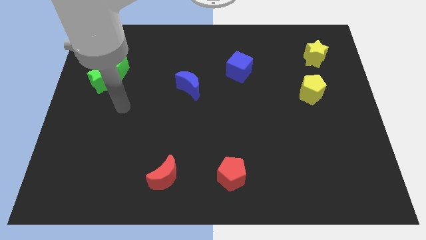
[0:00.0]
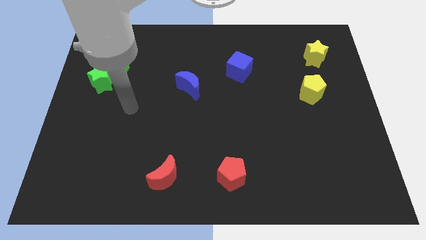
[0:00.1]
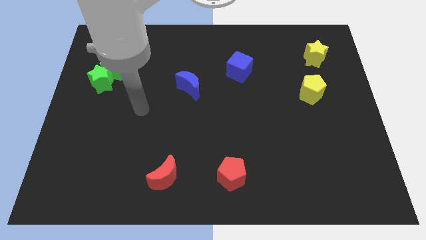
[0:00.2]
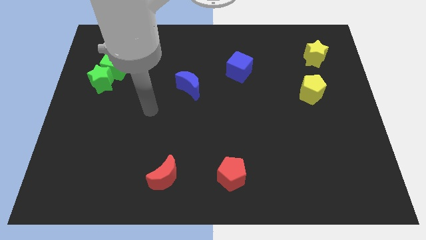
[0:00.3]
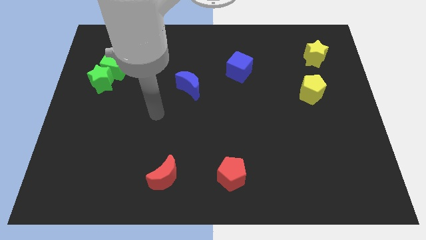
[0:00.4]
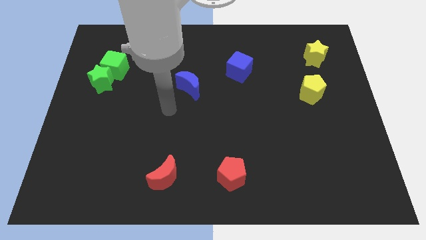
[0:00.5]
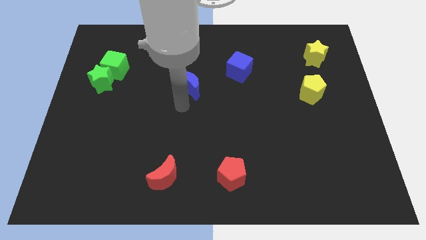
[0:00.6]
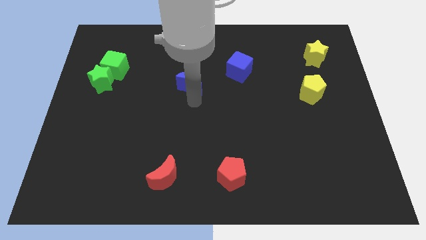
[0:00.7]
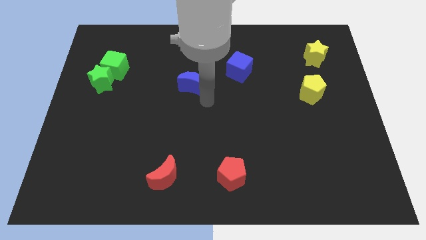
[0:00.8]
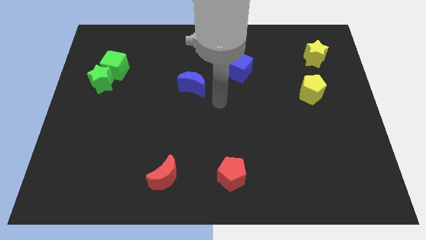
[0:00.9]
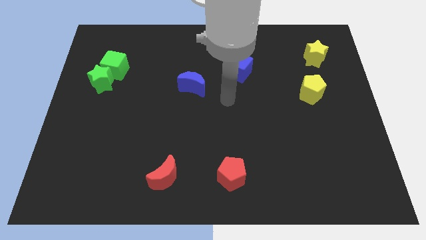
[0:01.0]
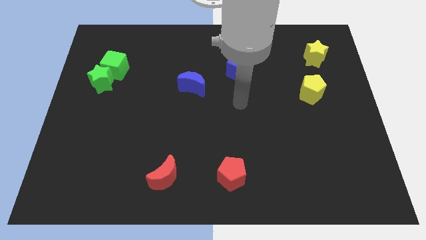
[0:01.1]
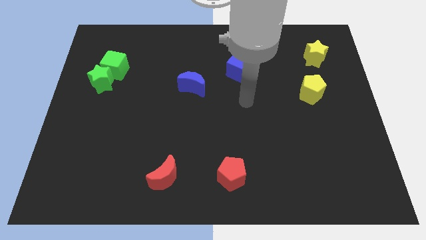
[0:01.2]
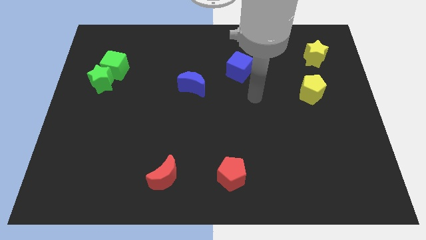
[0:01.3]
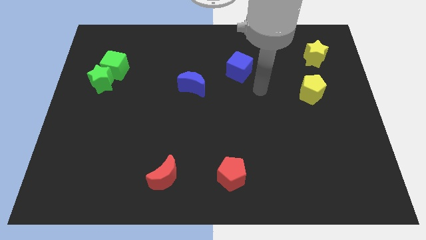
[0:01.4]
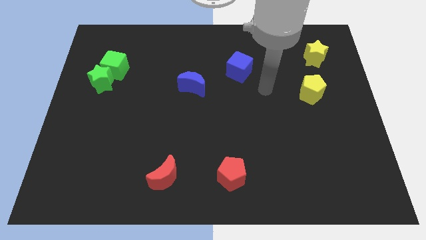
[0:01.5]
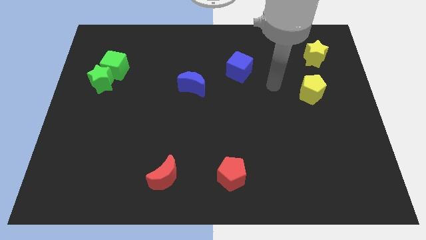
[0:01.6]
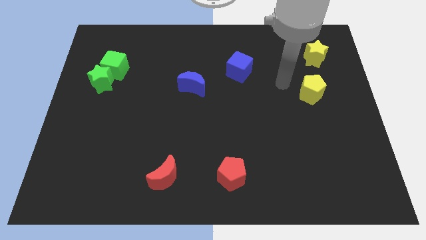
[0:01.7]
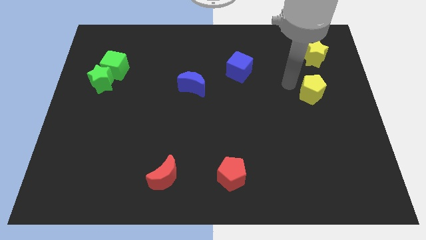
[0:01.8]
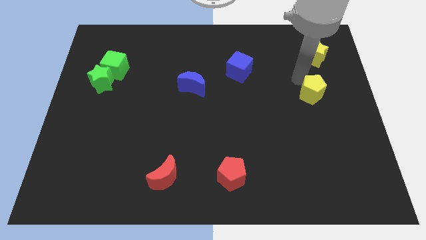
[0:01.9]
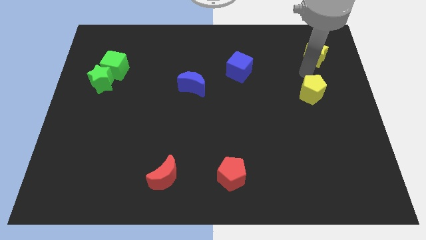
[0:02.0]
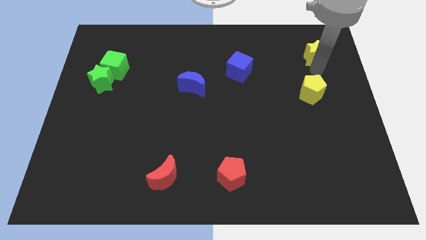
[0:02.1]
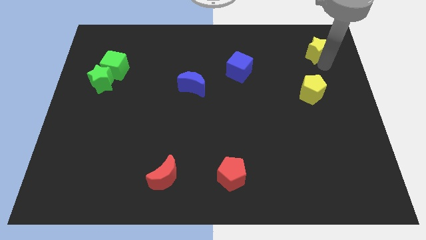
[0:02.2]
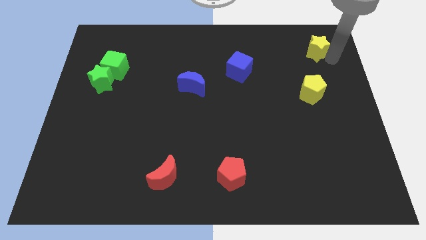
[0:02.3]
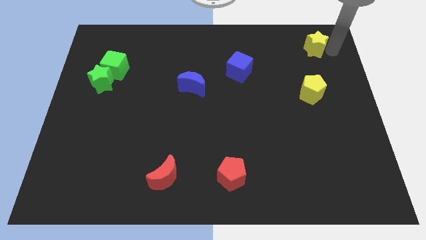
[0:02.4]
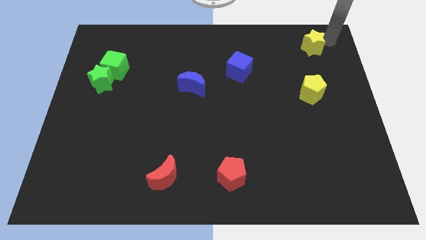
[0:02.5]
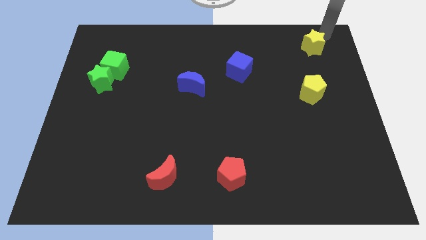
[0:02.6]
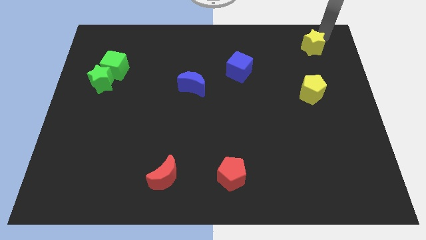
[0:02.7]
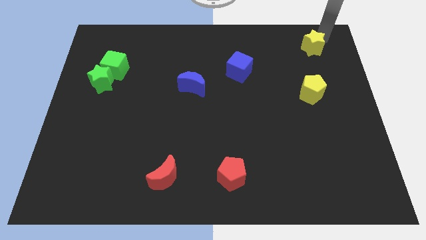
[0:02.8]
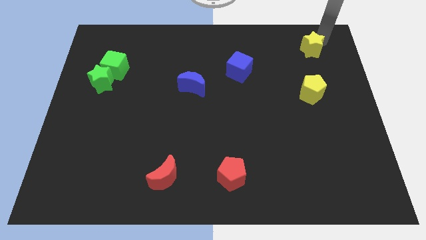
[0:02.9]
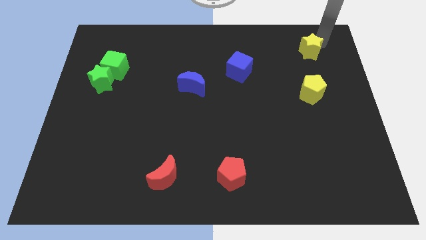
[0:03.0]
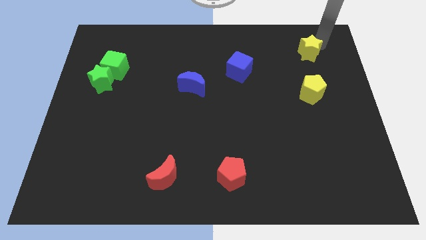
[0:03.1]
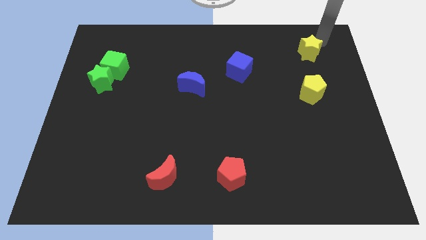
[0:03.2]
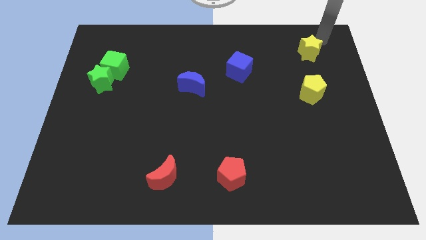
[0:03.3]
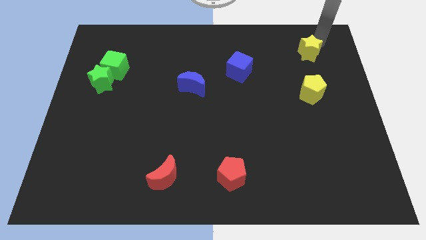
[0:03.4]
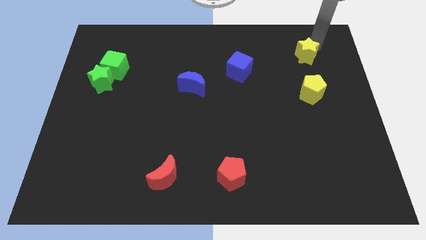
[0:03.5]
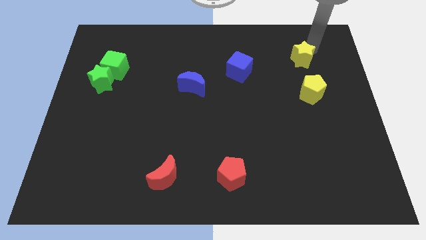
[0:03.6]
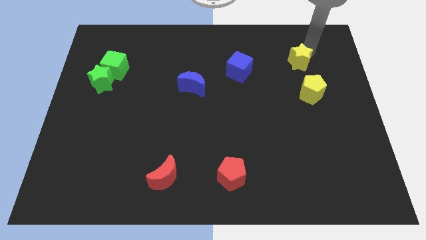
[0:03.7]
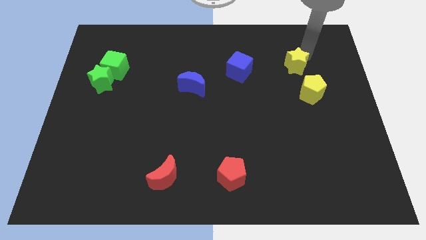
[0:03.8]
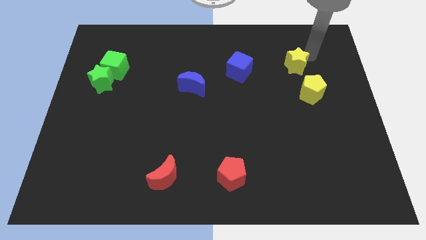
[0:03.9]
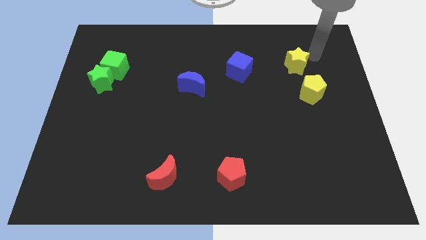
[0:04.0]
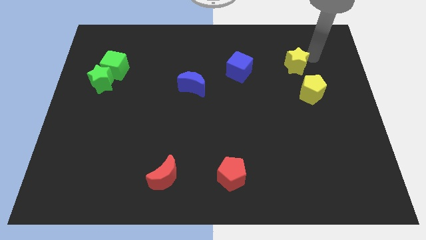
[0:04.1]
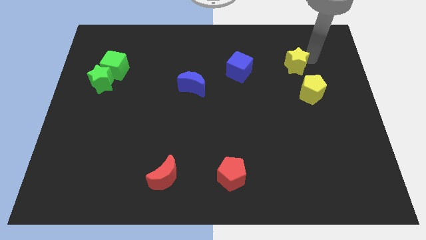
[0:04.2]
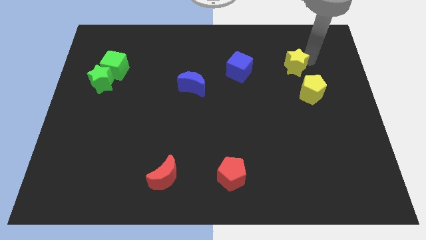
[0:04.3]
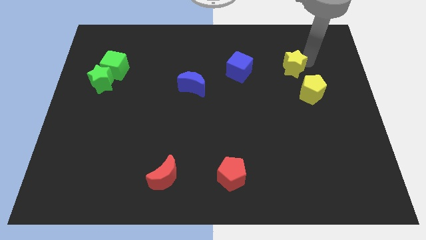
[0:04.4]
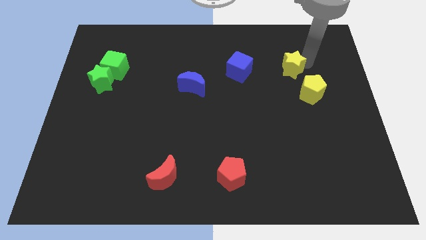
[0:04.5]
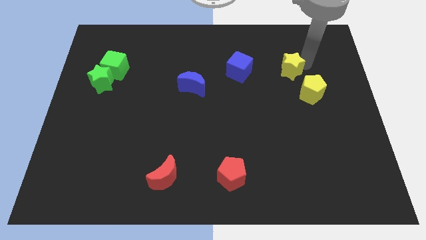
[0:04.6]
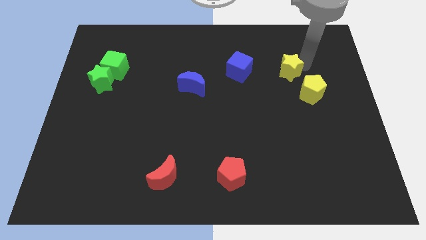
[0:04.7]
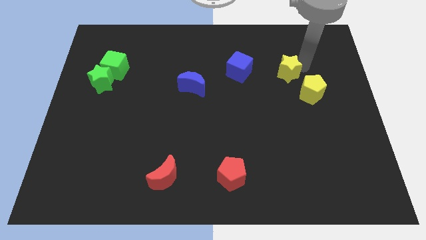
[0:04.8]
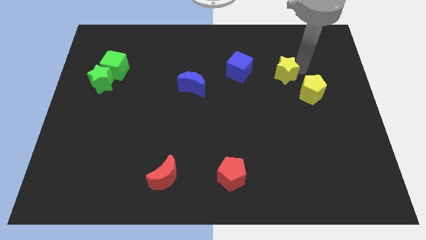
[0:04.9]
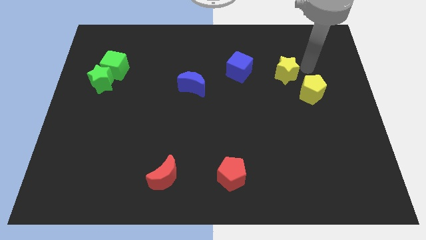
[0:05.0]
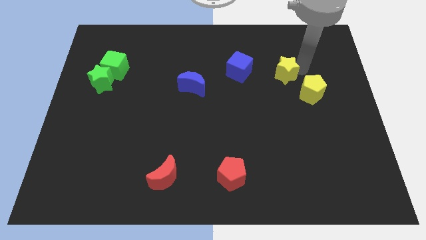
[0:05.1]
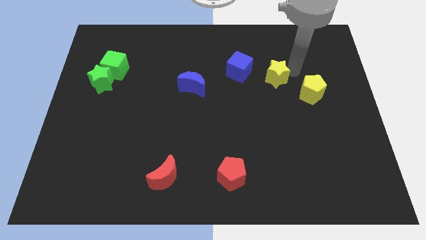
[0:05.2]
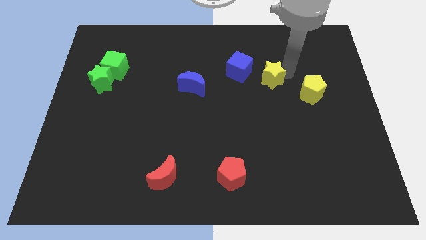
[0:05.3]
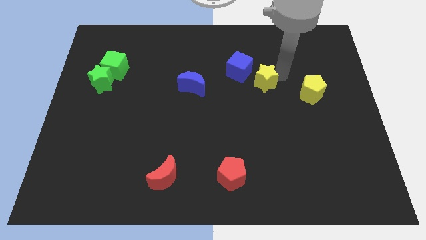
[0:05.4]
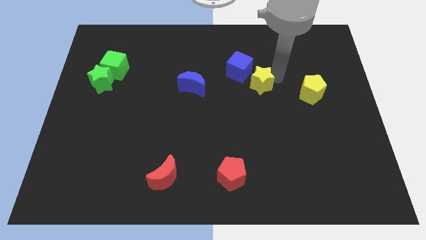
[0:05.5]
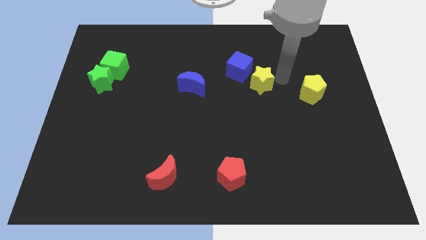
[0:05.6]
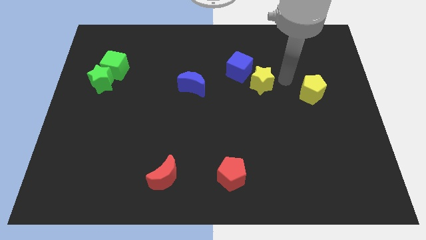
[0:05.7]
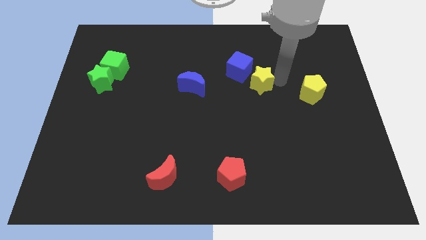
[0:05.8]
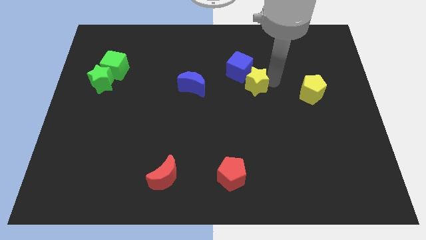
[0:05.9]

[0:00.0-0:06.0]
slide the yellow star right of the blue moon

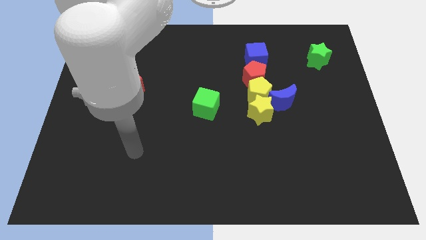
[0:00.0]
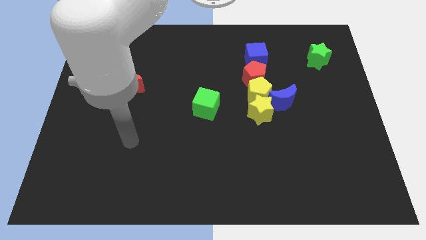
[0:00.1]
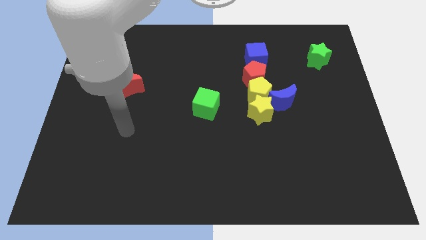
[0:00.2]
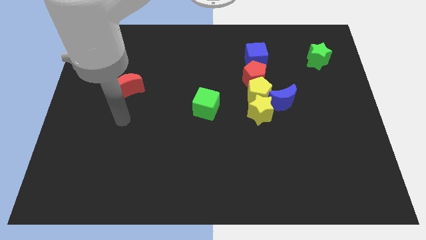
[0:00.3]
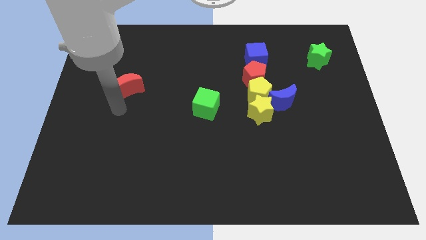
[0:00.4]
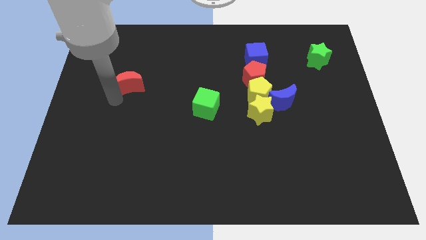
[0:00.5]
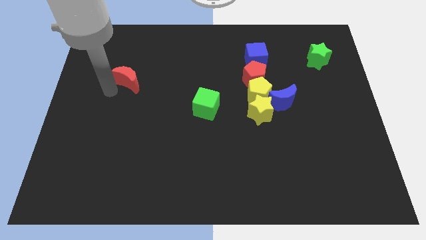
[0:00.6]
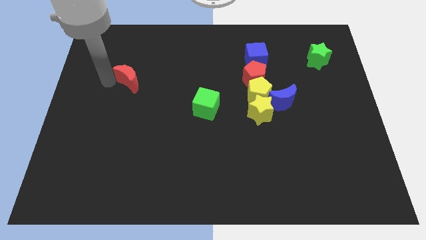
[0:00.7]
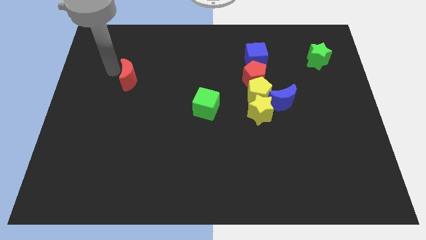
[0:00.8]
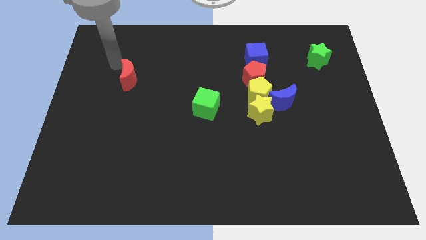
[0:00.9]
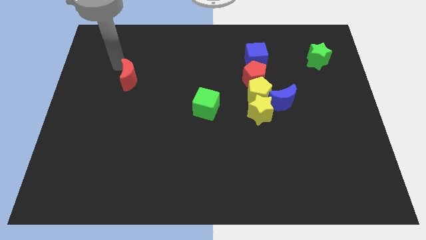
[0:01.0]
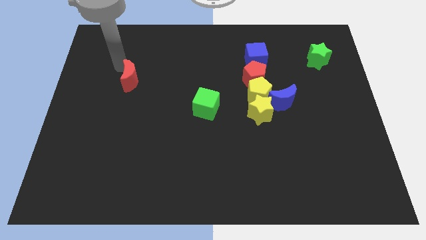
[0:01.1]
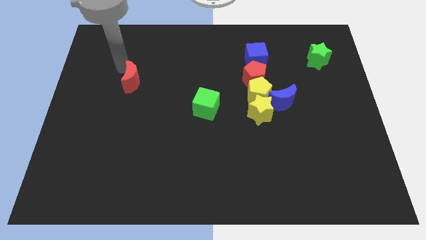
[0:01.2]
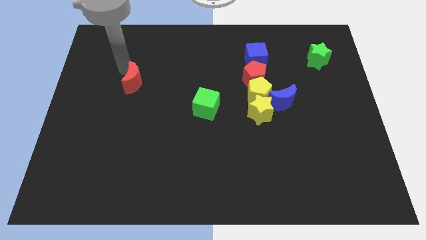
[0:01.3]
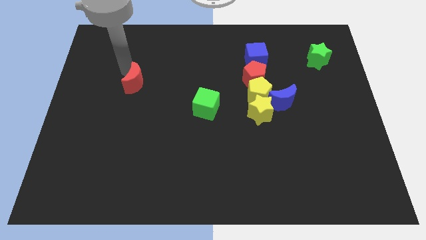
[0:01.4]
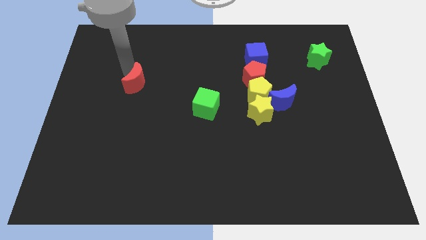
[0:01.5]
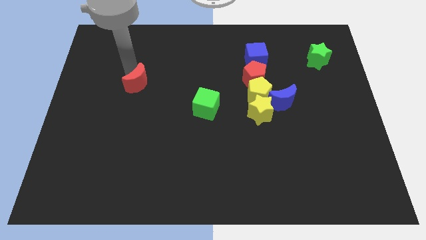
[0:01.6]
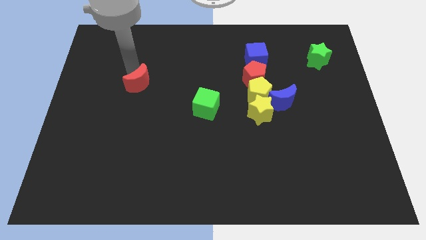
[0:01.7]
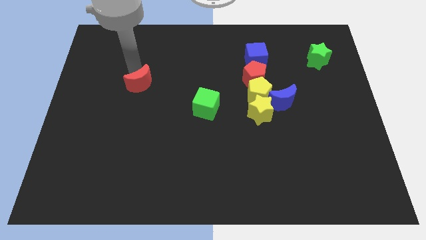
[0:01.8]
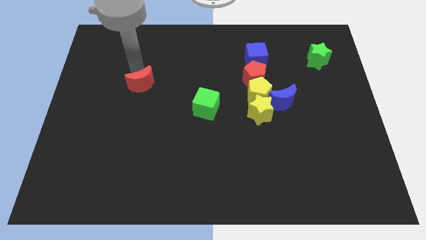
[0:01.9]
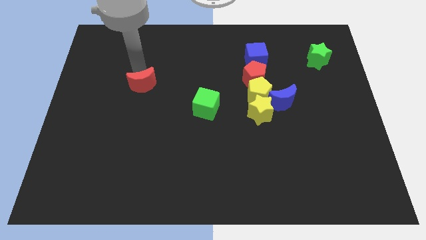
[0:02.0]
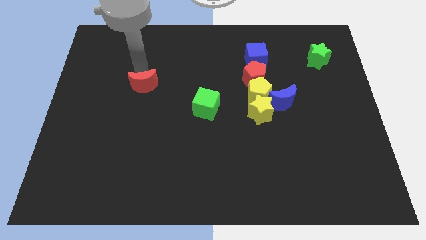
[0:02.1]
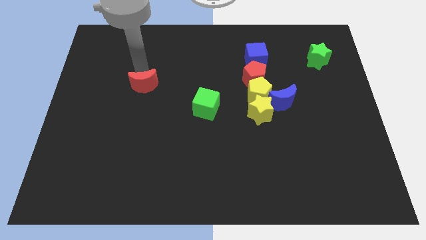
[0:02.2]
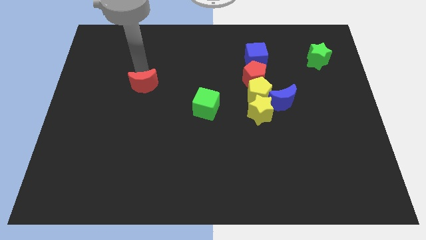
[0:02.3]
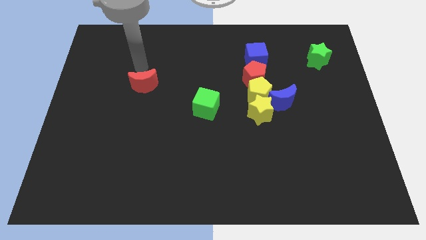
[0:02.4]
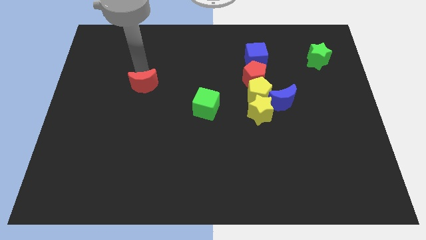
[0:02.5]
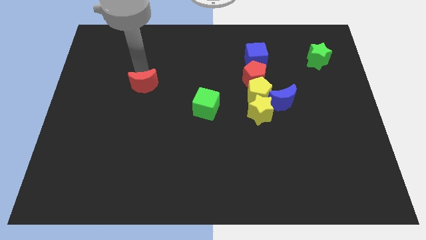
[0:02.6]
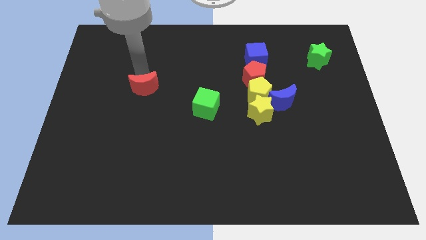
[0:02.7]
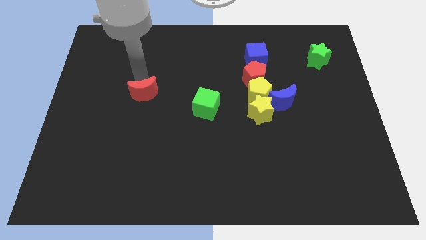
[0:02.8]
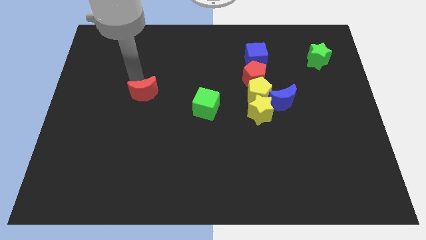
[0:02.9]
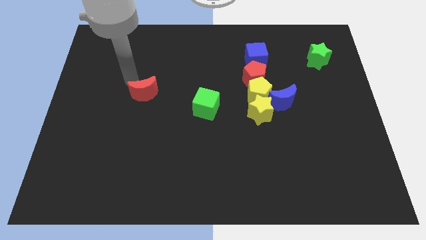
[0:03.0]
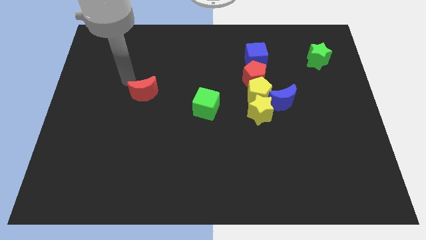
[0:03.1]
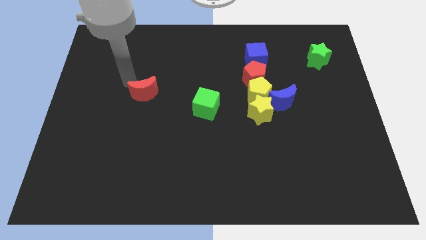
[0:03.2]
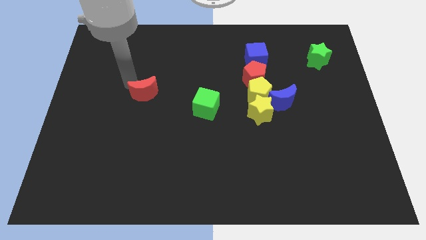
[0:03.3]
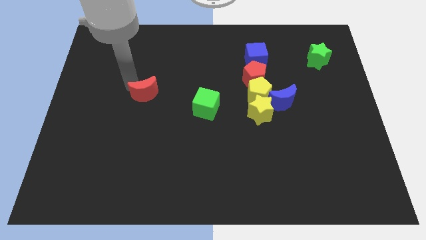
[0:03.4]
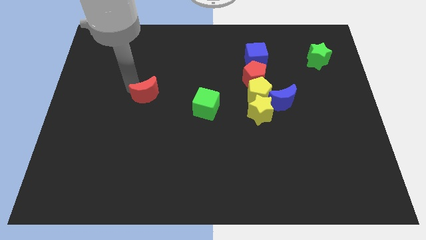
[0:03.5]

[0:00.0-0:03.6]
push the red moon left of the green cube
